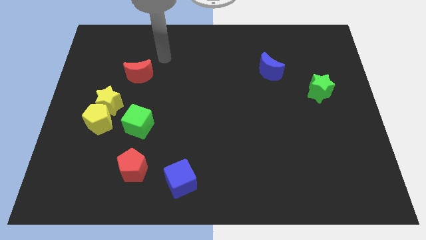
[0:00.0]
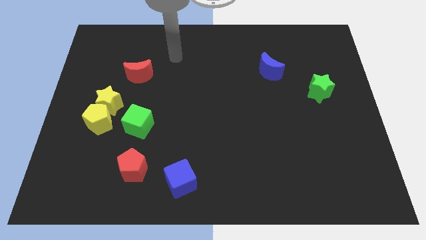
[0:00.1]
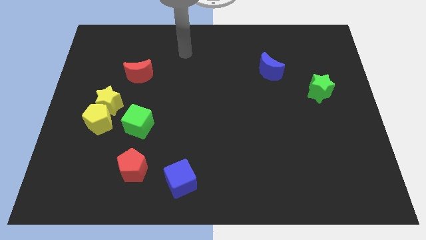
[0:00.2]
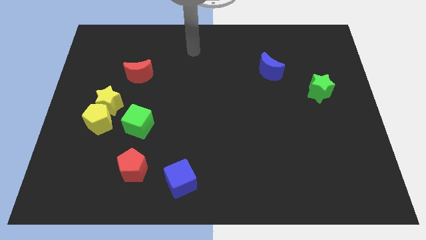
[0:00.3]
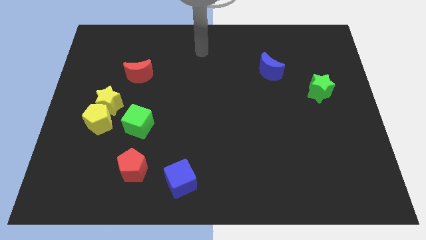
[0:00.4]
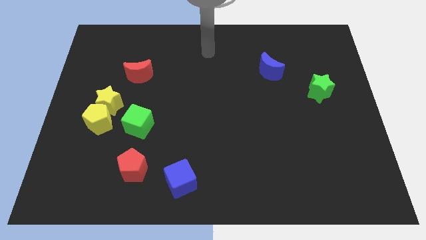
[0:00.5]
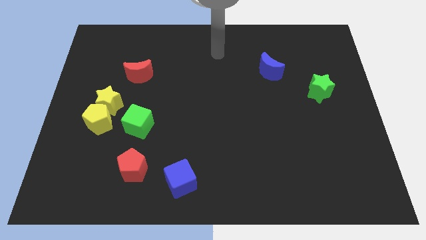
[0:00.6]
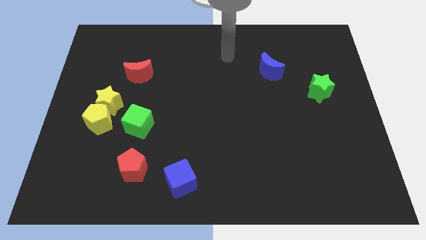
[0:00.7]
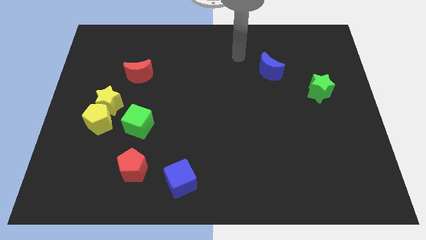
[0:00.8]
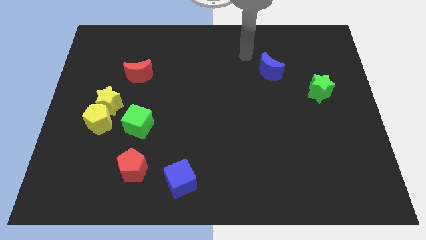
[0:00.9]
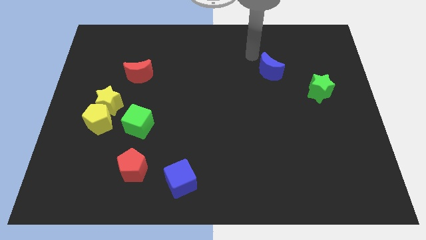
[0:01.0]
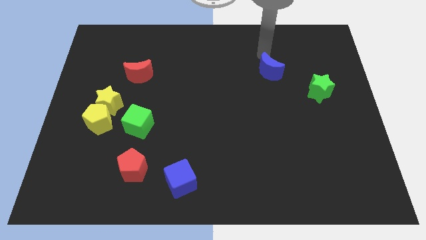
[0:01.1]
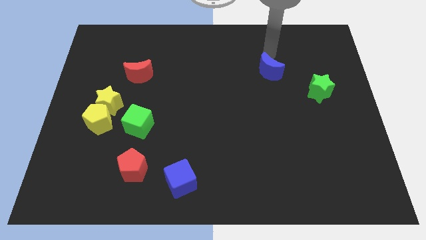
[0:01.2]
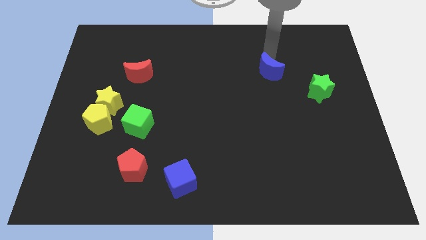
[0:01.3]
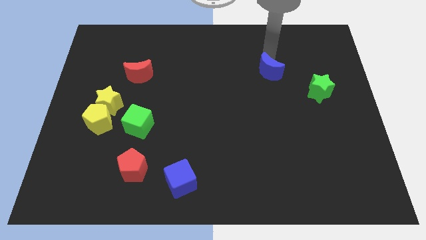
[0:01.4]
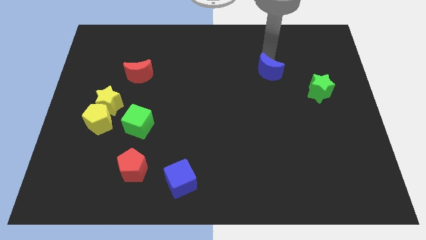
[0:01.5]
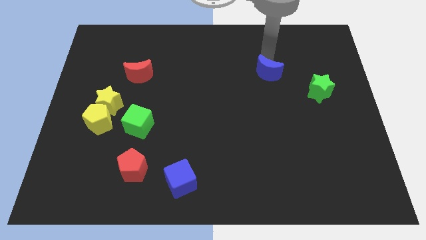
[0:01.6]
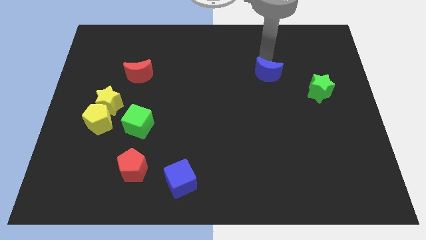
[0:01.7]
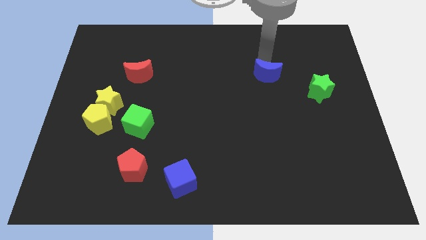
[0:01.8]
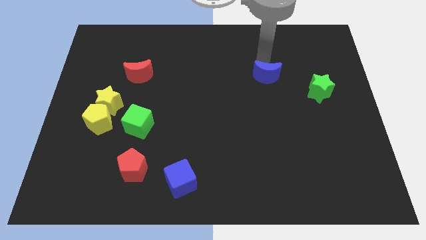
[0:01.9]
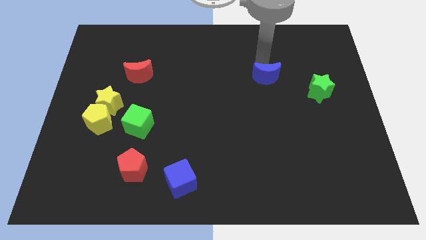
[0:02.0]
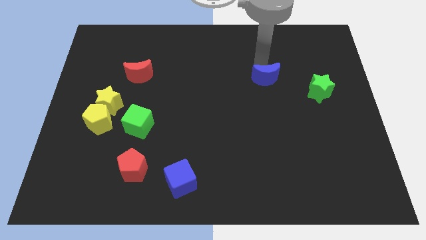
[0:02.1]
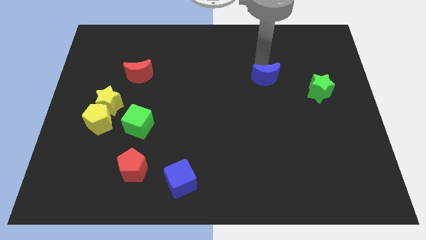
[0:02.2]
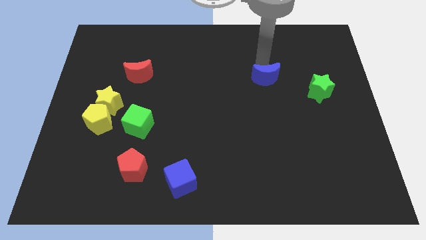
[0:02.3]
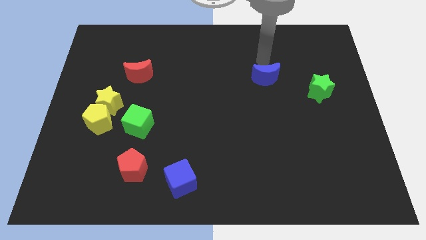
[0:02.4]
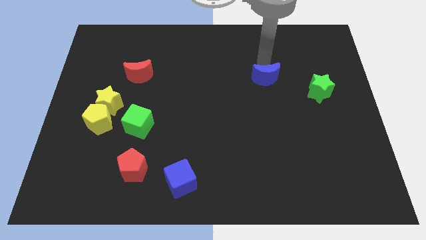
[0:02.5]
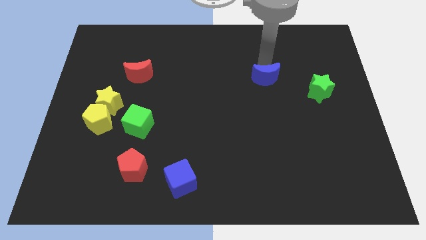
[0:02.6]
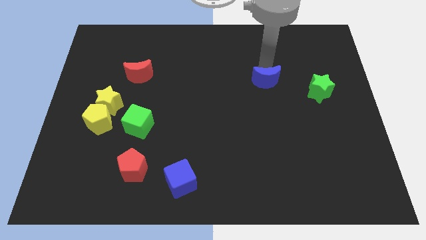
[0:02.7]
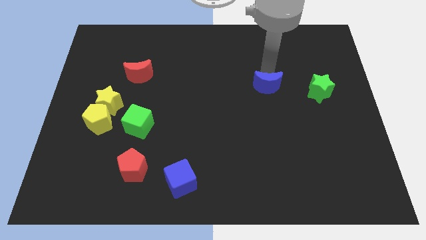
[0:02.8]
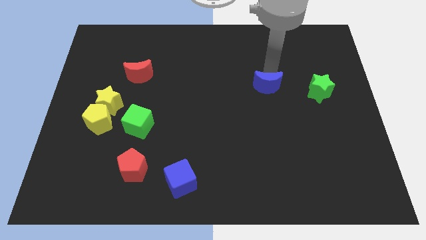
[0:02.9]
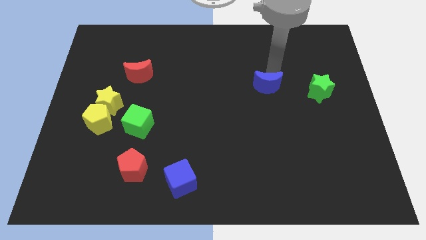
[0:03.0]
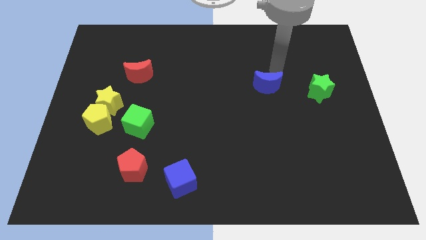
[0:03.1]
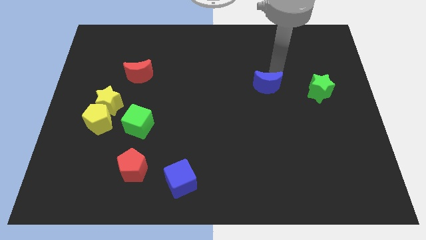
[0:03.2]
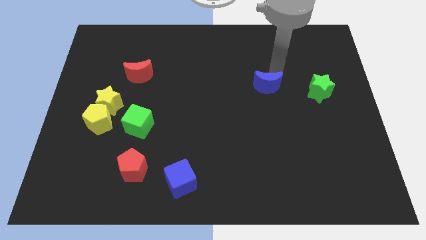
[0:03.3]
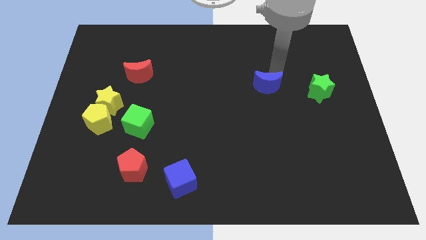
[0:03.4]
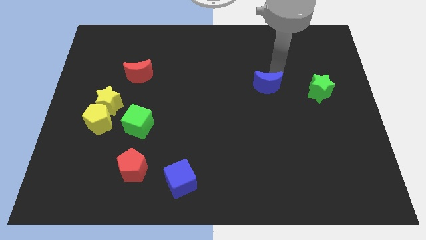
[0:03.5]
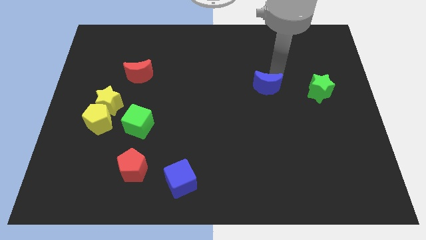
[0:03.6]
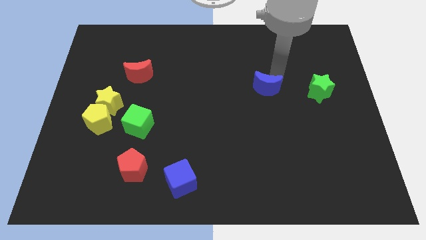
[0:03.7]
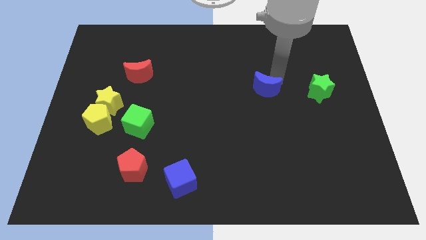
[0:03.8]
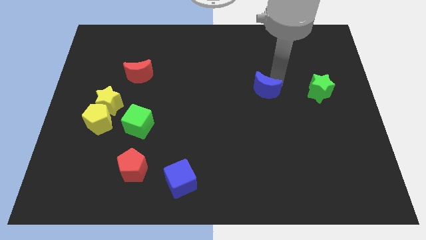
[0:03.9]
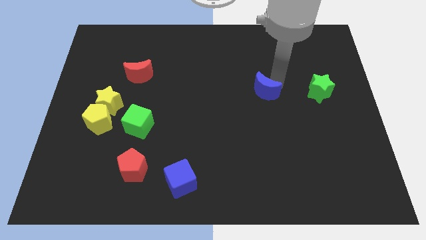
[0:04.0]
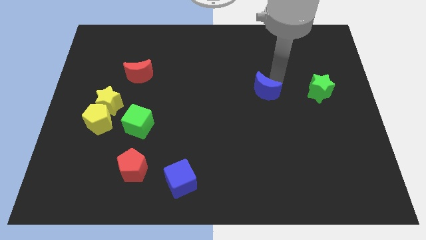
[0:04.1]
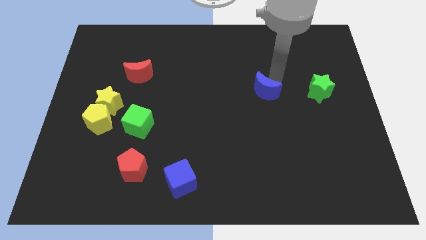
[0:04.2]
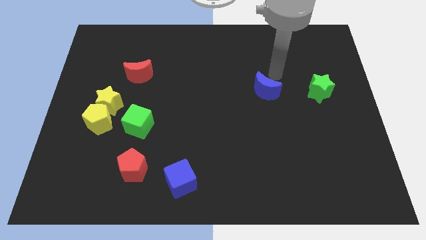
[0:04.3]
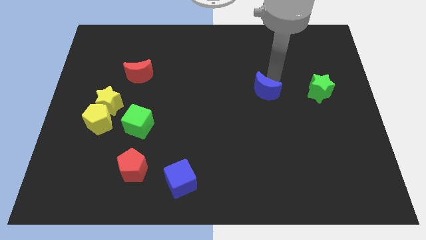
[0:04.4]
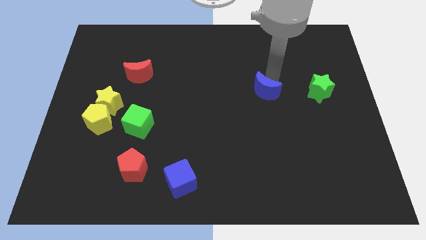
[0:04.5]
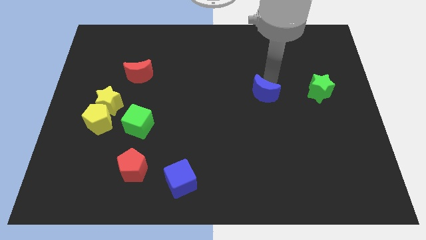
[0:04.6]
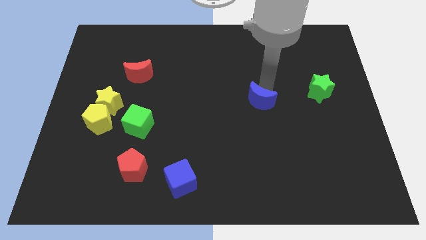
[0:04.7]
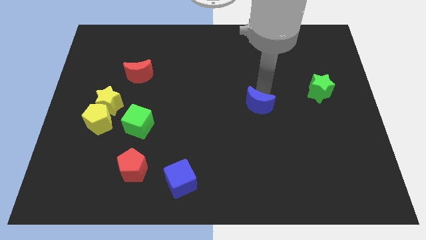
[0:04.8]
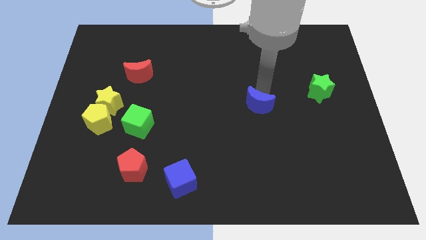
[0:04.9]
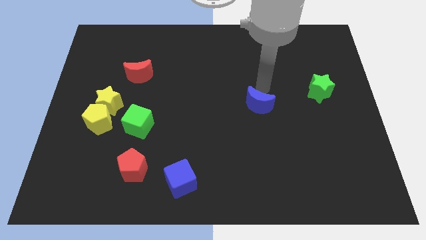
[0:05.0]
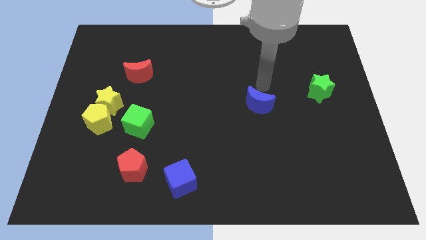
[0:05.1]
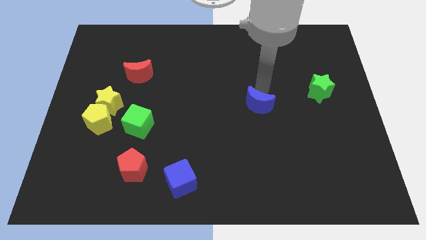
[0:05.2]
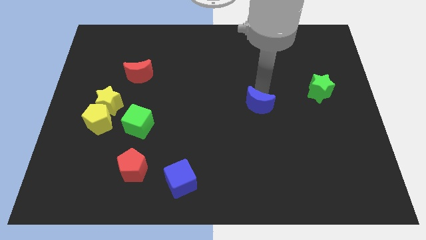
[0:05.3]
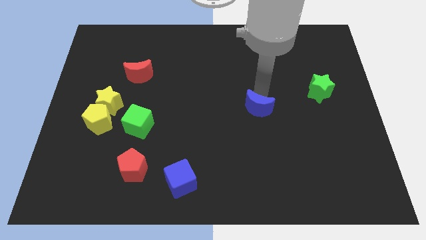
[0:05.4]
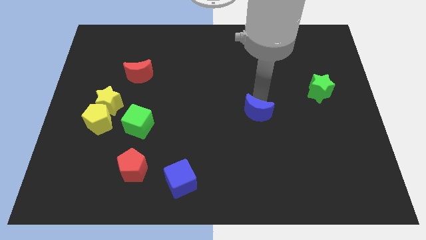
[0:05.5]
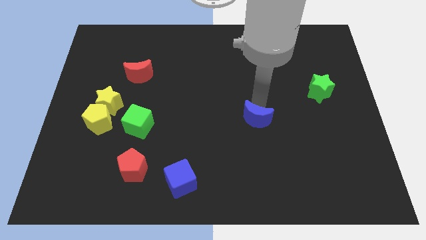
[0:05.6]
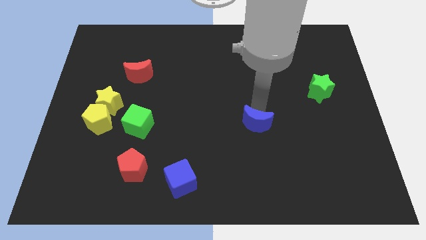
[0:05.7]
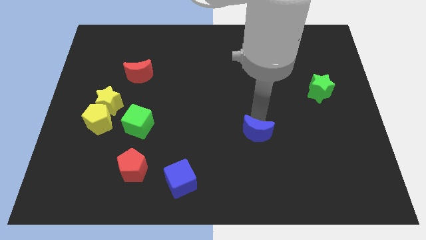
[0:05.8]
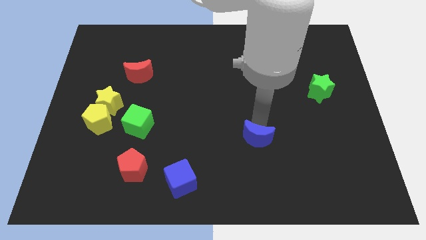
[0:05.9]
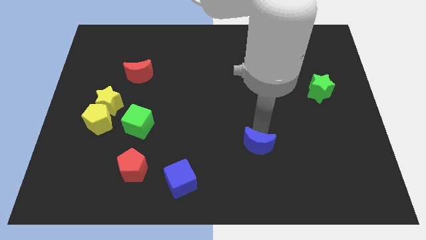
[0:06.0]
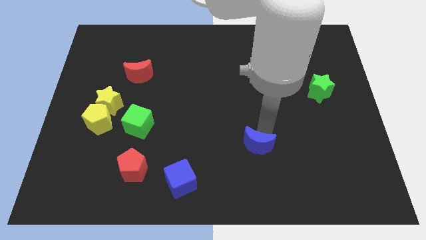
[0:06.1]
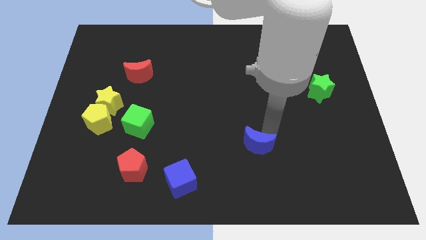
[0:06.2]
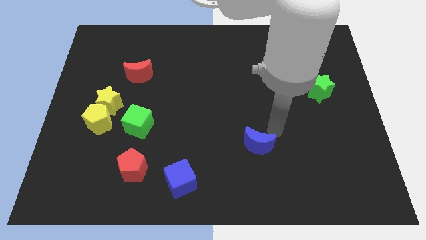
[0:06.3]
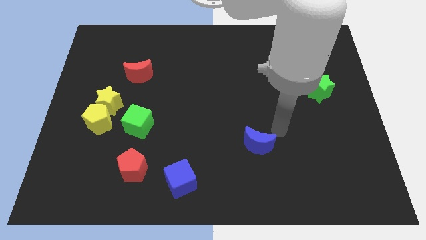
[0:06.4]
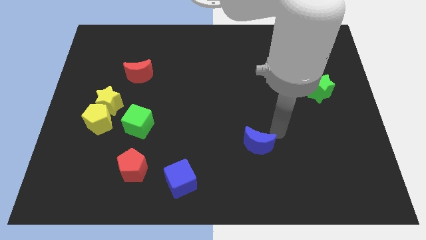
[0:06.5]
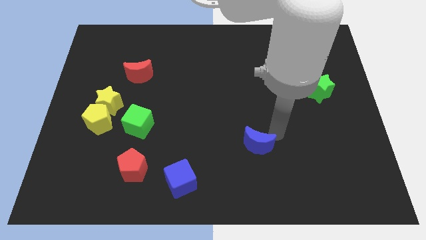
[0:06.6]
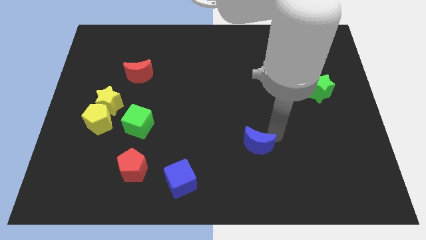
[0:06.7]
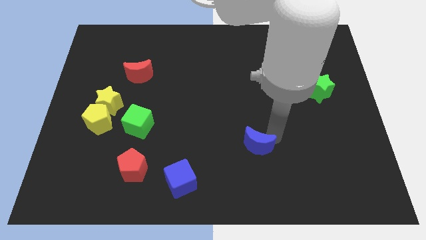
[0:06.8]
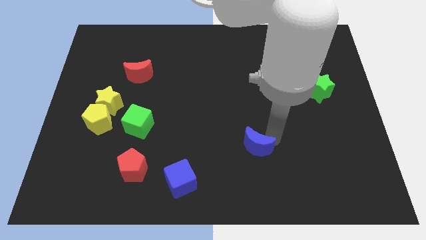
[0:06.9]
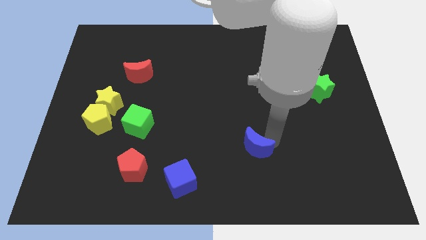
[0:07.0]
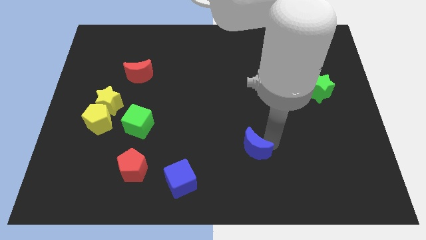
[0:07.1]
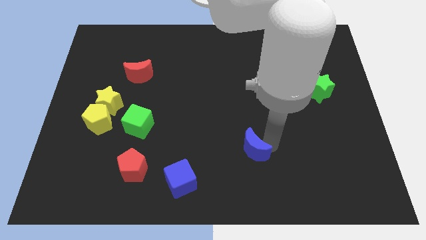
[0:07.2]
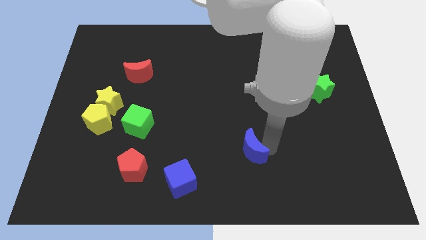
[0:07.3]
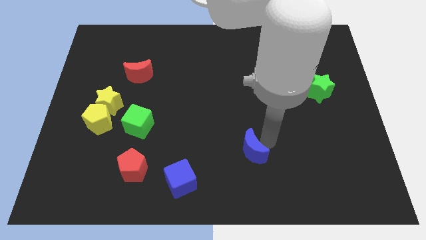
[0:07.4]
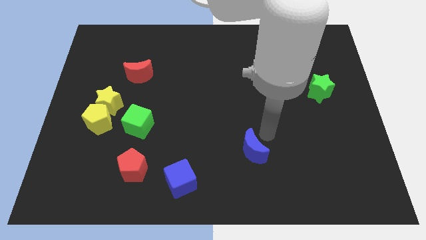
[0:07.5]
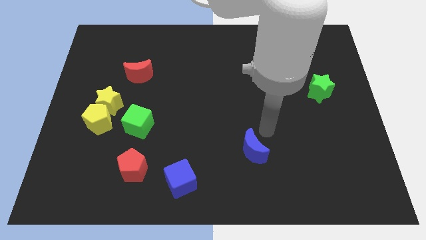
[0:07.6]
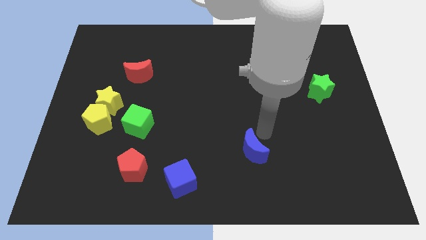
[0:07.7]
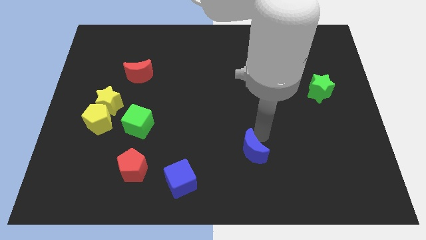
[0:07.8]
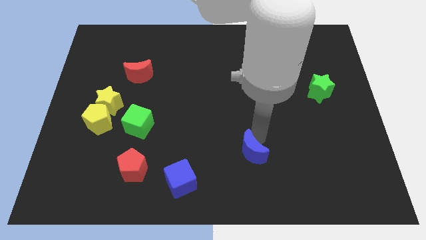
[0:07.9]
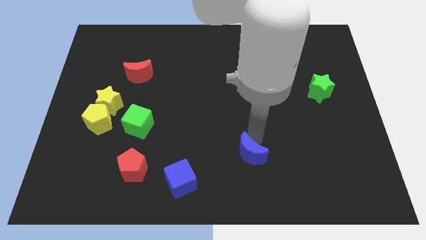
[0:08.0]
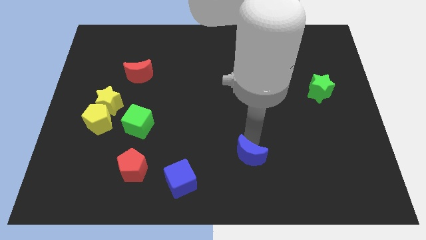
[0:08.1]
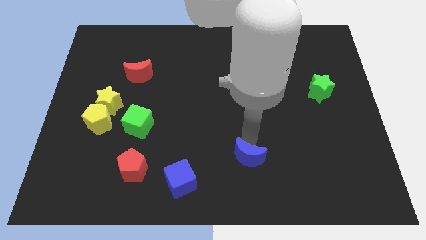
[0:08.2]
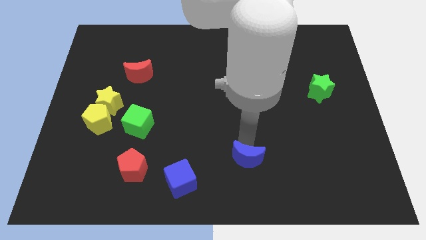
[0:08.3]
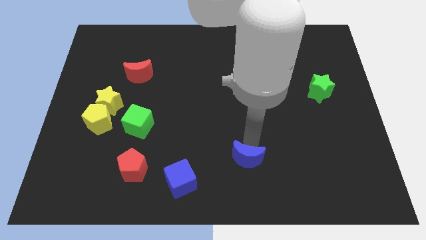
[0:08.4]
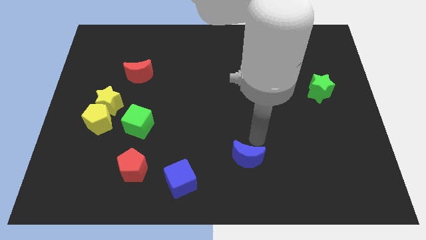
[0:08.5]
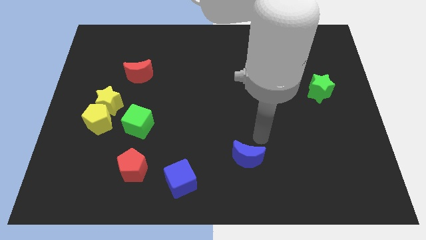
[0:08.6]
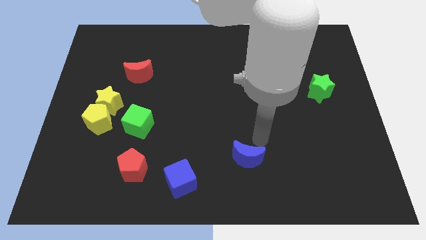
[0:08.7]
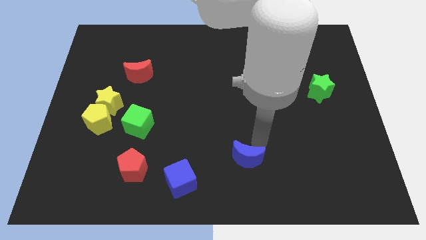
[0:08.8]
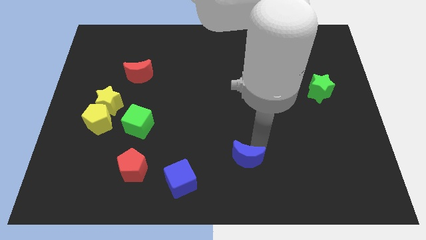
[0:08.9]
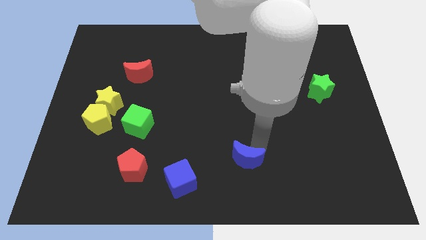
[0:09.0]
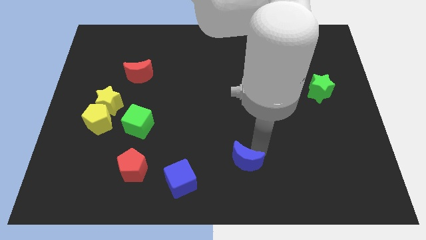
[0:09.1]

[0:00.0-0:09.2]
put the blue moon just right of the blue cube
